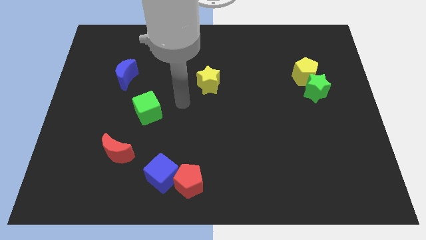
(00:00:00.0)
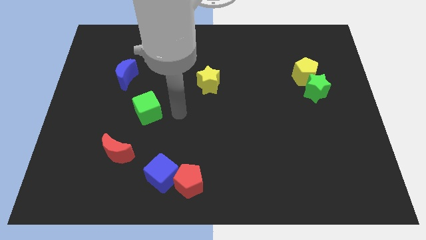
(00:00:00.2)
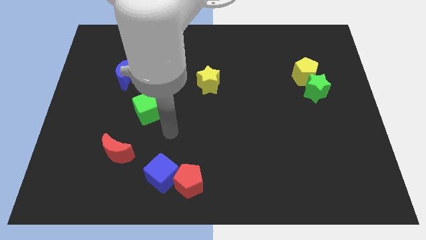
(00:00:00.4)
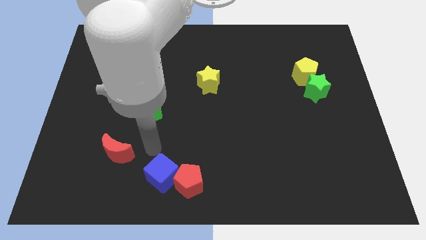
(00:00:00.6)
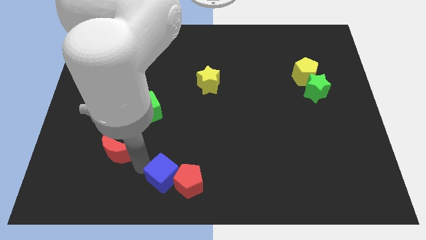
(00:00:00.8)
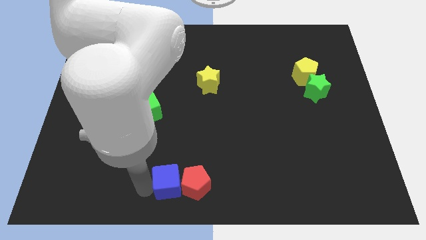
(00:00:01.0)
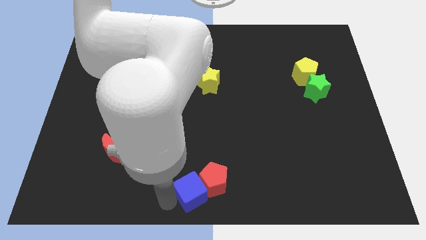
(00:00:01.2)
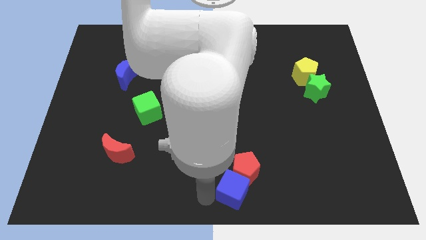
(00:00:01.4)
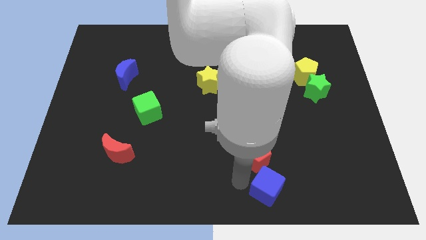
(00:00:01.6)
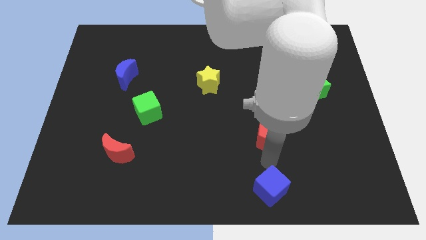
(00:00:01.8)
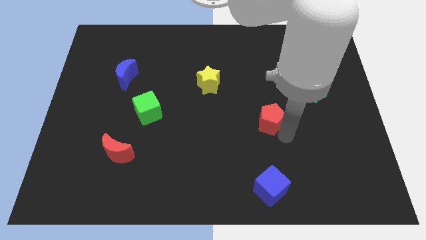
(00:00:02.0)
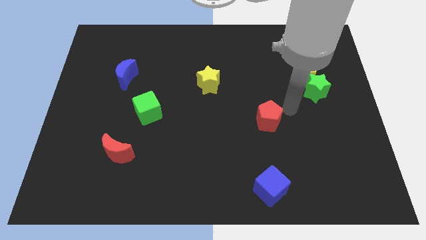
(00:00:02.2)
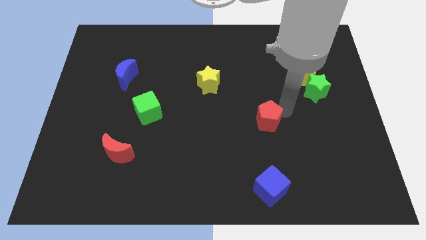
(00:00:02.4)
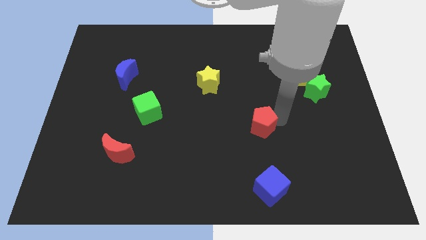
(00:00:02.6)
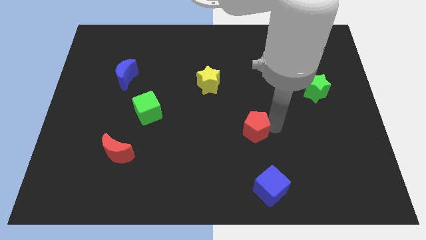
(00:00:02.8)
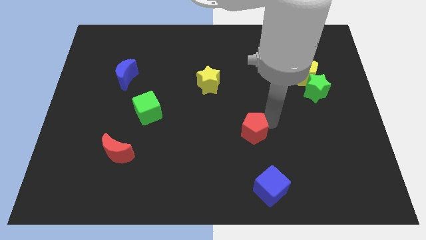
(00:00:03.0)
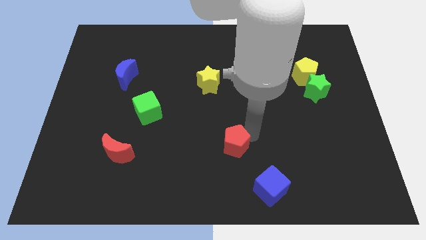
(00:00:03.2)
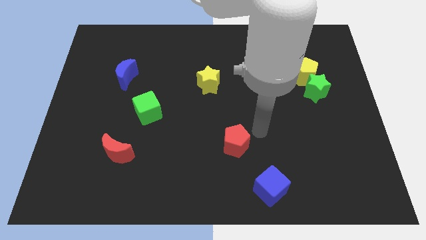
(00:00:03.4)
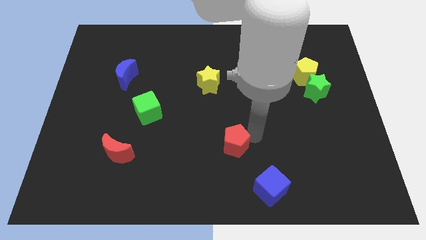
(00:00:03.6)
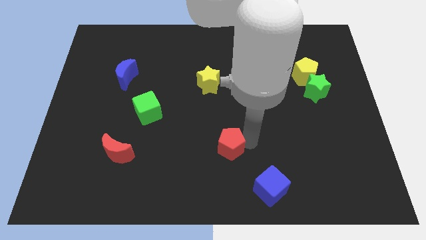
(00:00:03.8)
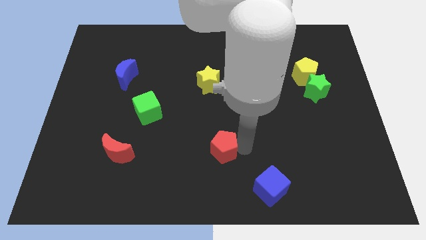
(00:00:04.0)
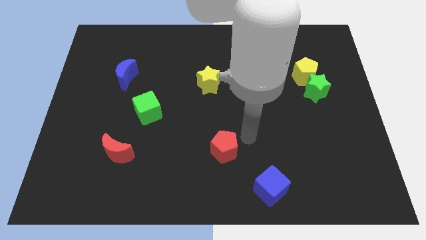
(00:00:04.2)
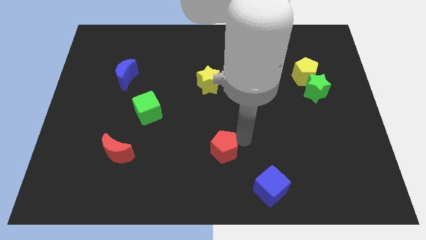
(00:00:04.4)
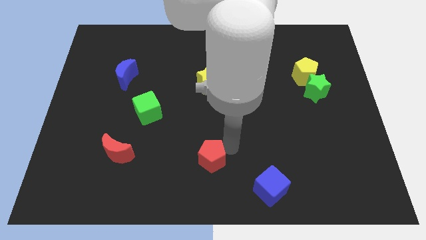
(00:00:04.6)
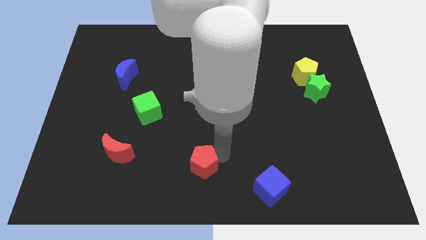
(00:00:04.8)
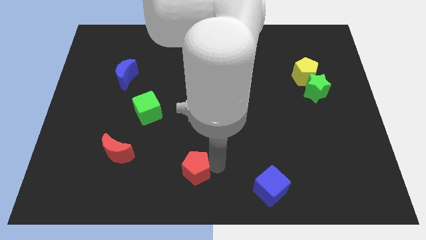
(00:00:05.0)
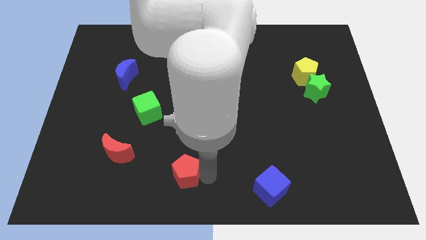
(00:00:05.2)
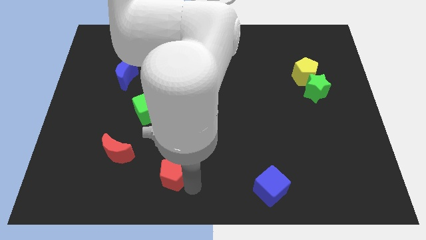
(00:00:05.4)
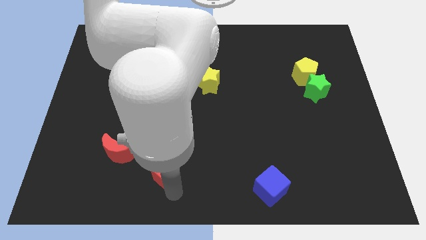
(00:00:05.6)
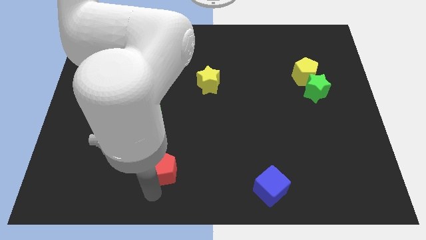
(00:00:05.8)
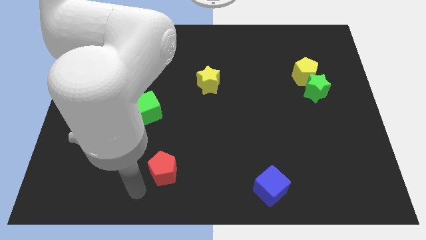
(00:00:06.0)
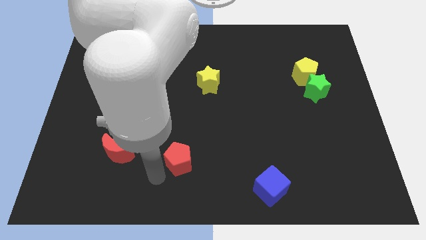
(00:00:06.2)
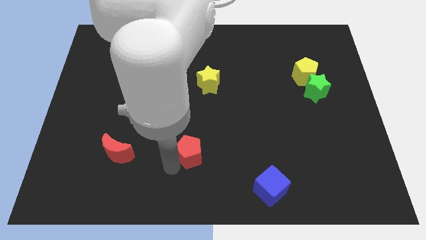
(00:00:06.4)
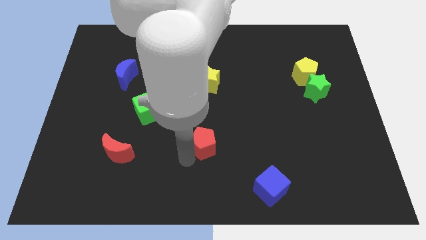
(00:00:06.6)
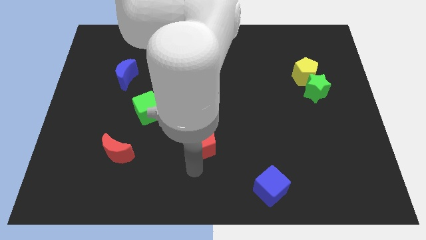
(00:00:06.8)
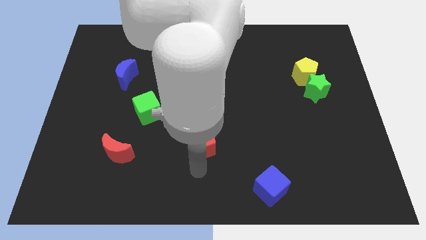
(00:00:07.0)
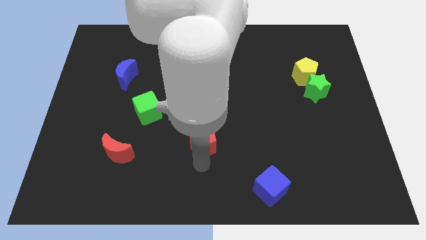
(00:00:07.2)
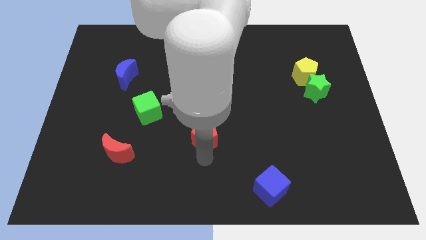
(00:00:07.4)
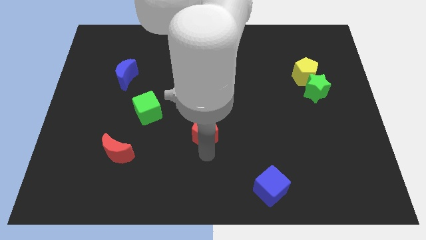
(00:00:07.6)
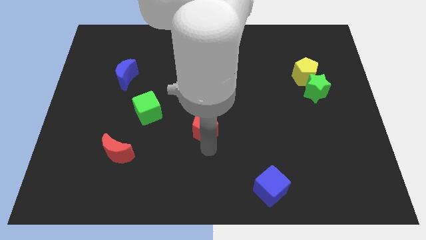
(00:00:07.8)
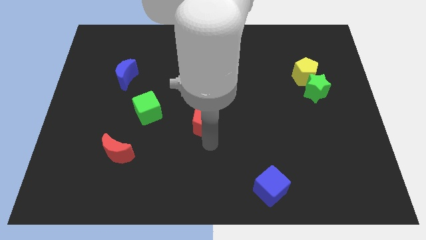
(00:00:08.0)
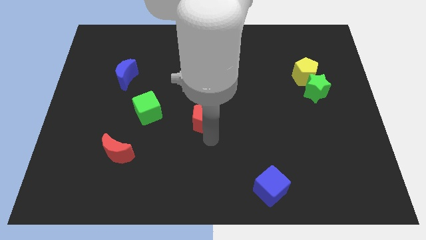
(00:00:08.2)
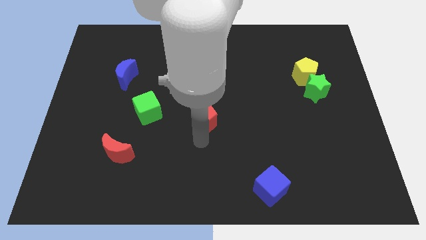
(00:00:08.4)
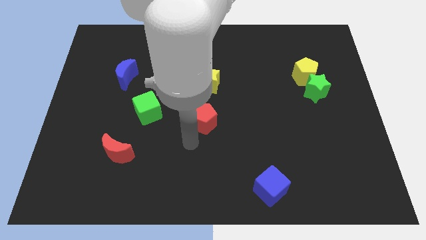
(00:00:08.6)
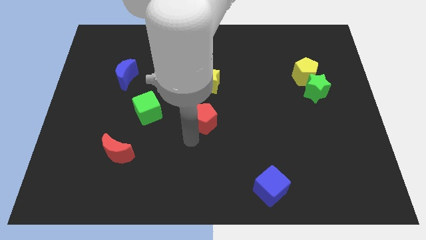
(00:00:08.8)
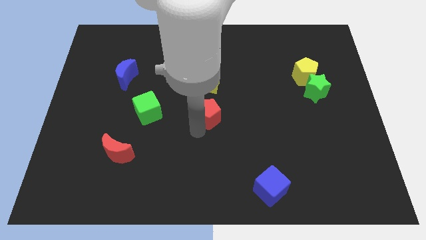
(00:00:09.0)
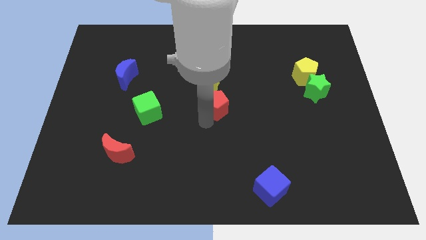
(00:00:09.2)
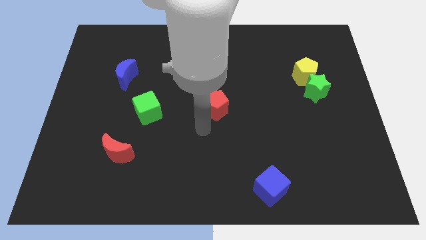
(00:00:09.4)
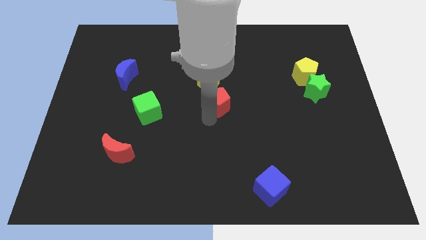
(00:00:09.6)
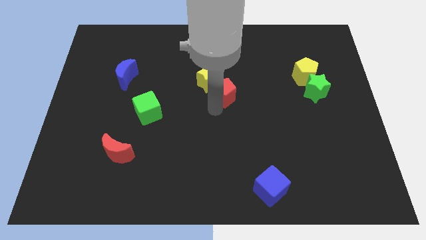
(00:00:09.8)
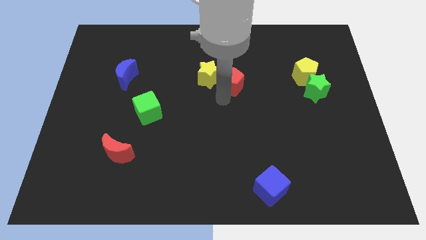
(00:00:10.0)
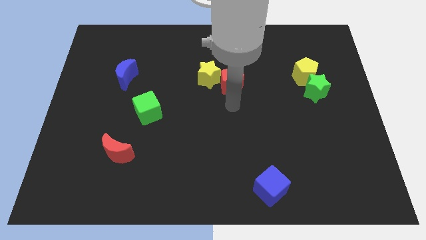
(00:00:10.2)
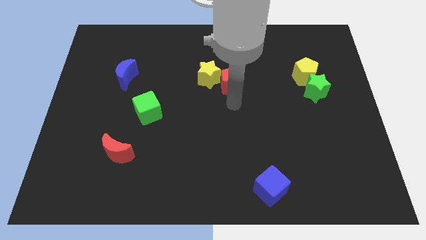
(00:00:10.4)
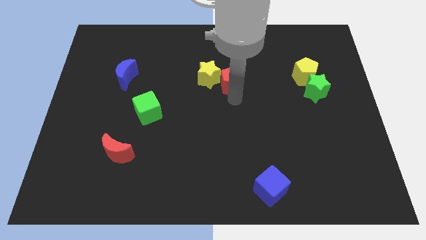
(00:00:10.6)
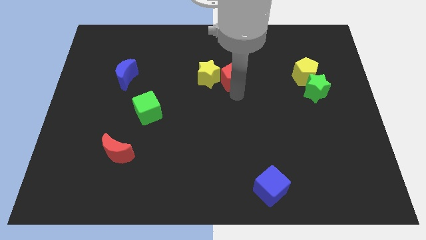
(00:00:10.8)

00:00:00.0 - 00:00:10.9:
put the red pentagon to the top right side of the yellow star

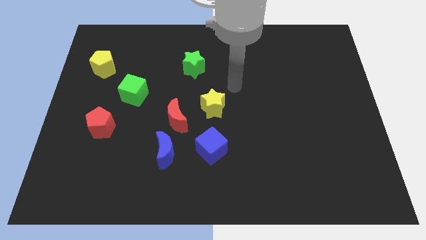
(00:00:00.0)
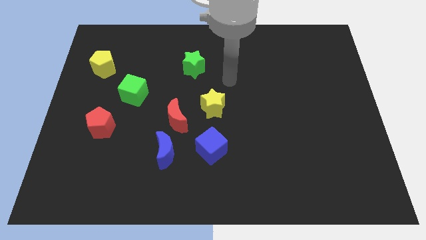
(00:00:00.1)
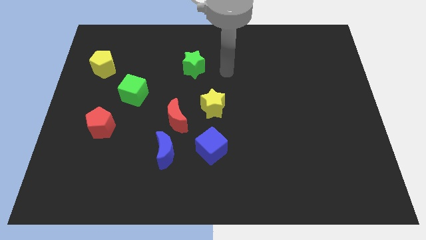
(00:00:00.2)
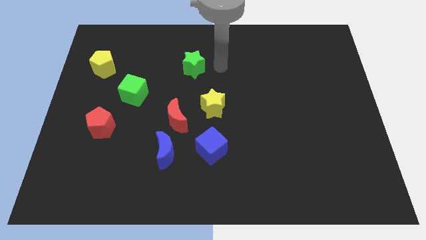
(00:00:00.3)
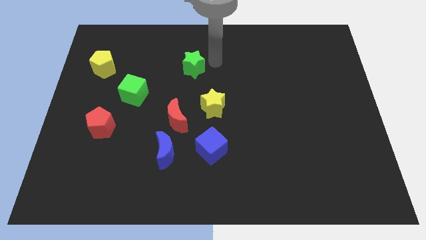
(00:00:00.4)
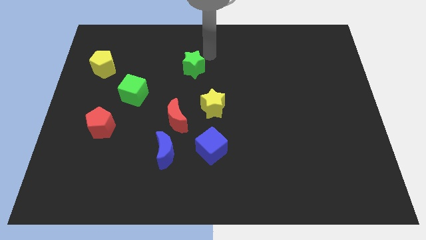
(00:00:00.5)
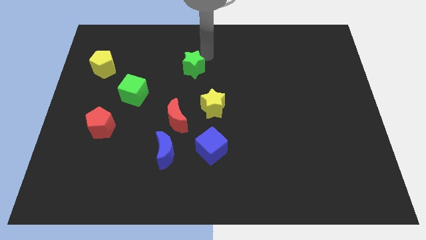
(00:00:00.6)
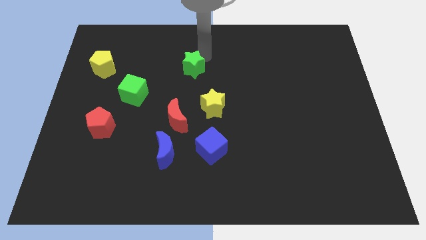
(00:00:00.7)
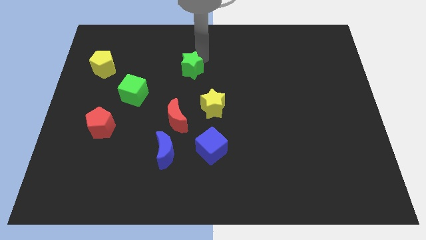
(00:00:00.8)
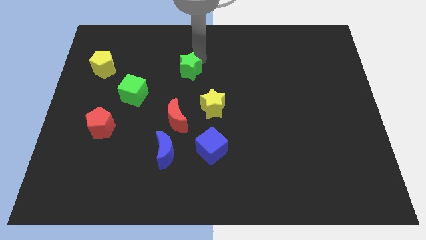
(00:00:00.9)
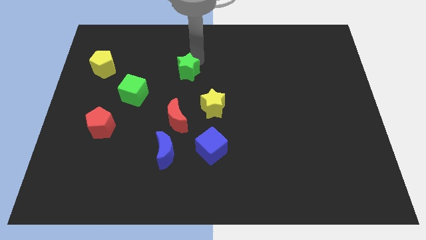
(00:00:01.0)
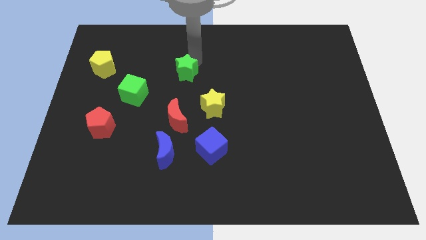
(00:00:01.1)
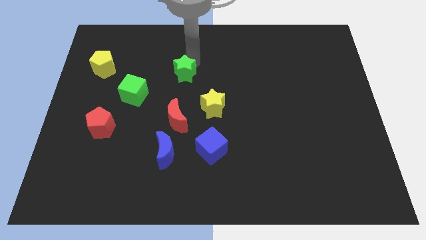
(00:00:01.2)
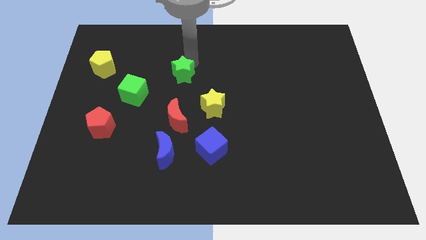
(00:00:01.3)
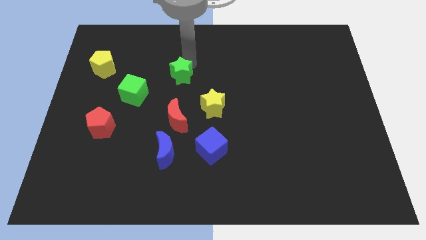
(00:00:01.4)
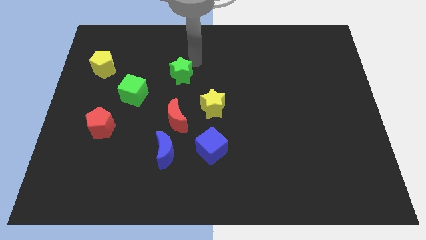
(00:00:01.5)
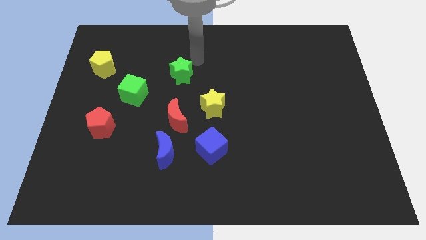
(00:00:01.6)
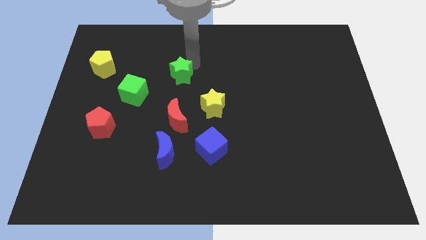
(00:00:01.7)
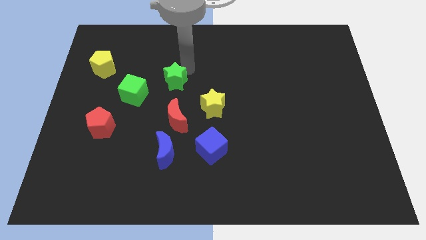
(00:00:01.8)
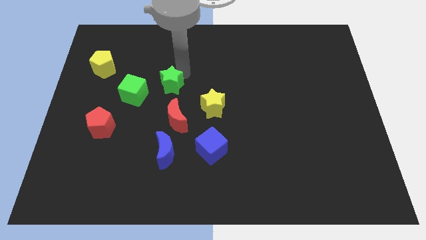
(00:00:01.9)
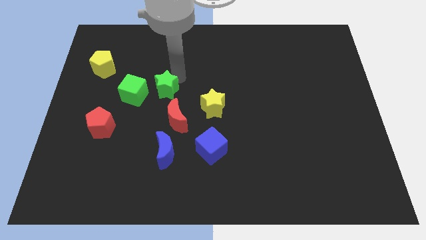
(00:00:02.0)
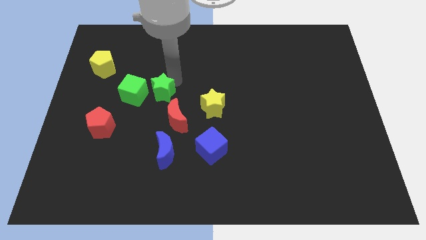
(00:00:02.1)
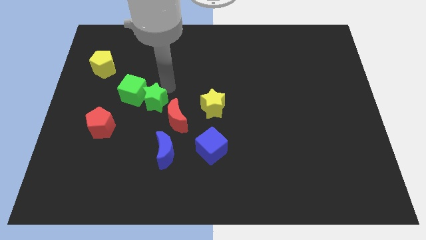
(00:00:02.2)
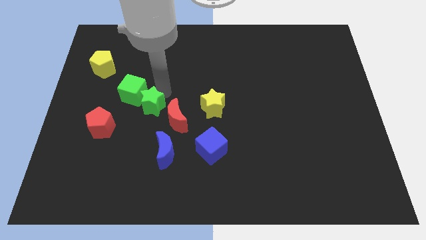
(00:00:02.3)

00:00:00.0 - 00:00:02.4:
move the green star to the left of the red moon
